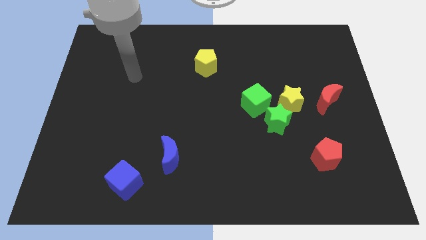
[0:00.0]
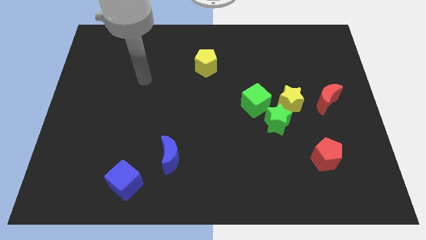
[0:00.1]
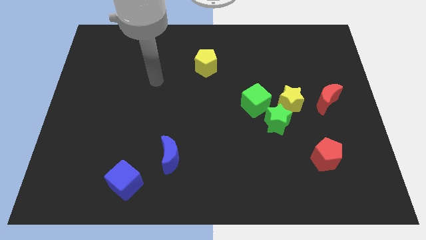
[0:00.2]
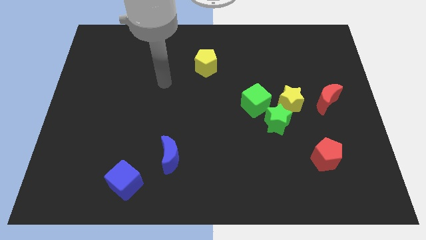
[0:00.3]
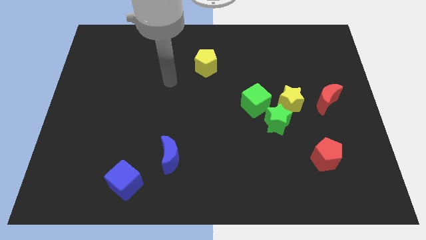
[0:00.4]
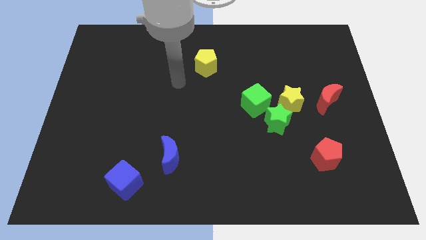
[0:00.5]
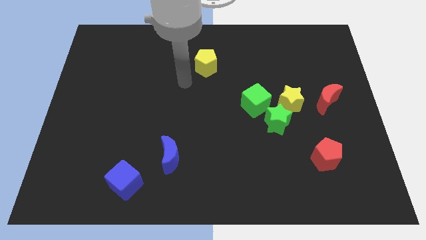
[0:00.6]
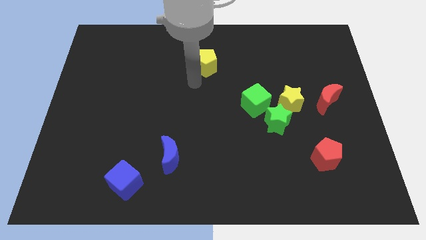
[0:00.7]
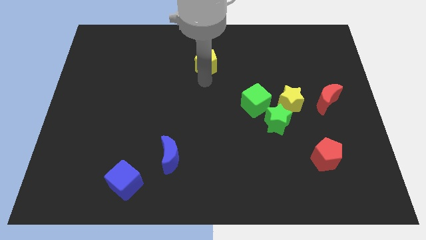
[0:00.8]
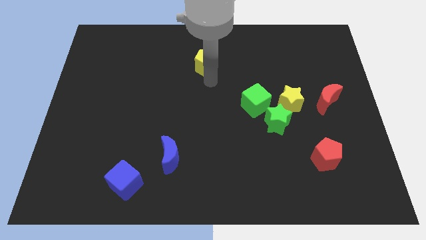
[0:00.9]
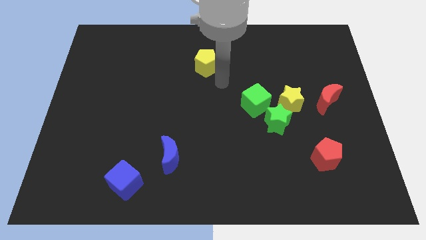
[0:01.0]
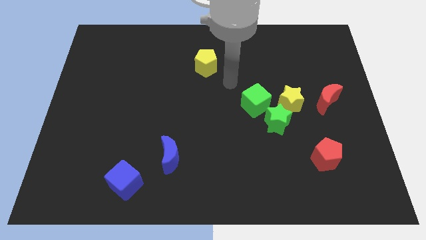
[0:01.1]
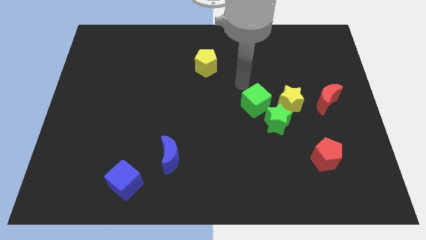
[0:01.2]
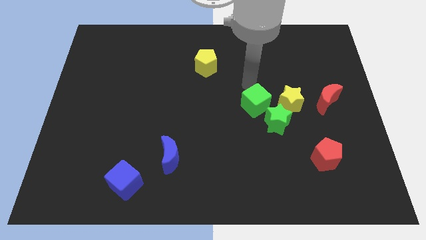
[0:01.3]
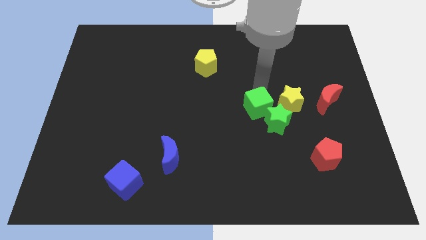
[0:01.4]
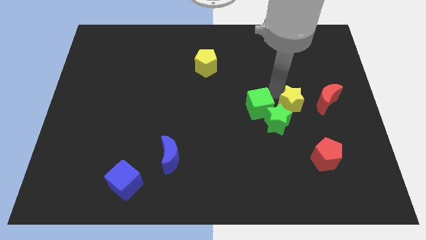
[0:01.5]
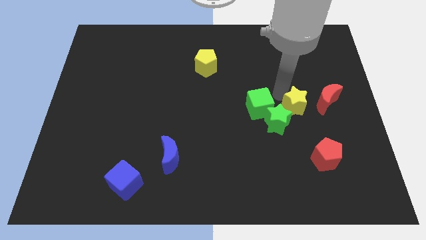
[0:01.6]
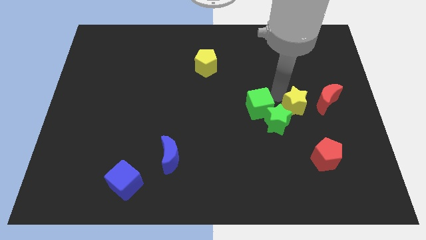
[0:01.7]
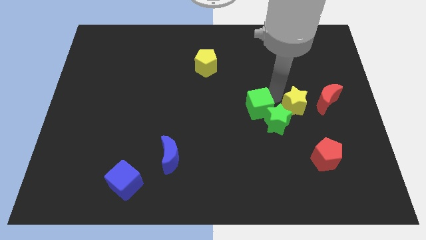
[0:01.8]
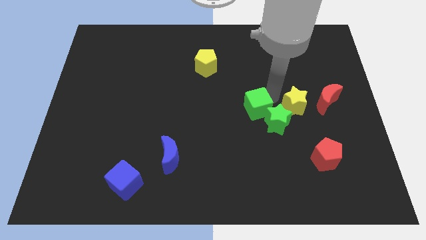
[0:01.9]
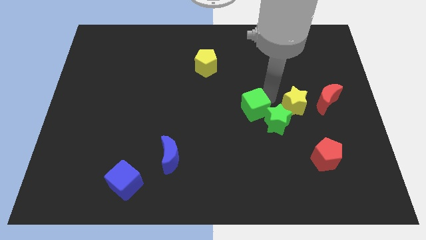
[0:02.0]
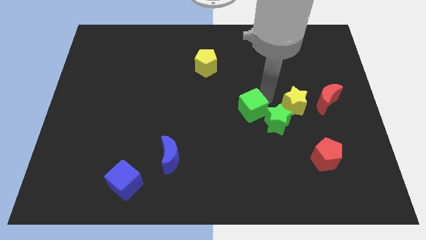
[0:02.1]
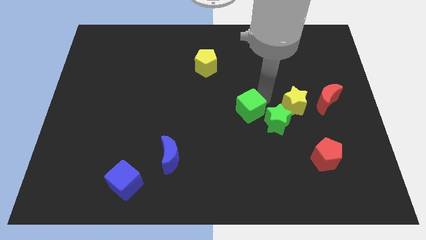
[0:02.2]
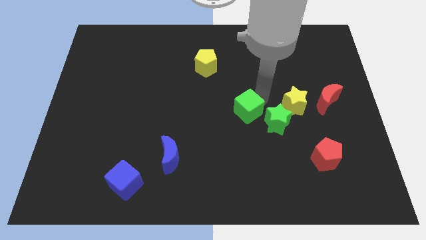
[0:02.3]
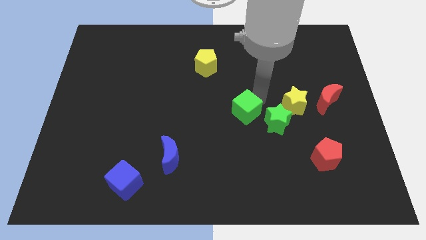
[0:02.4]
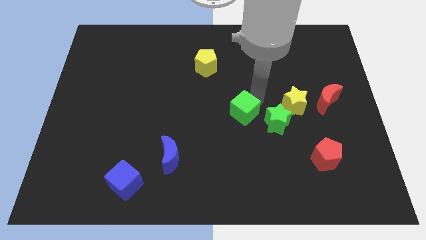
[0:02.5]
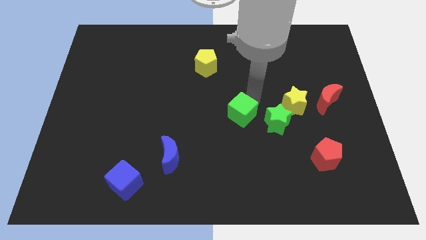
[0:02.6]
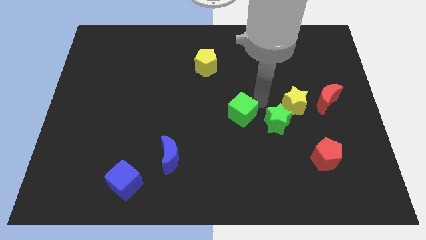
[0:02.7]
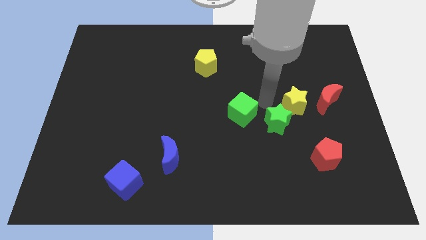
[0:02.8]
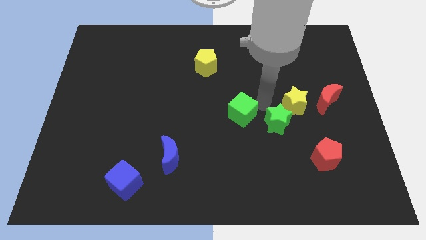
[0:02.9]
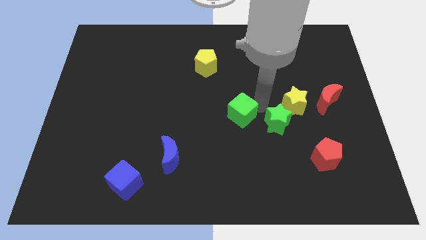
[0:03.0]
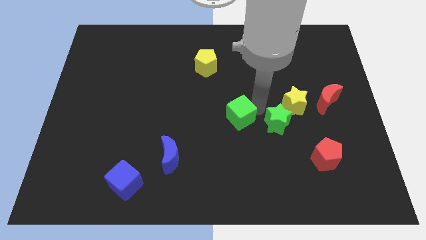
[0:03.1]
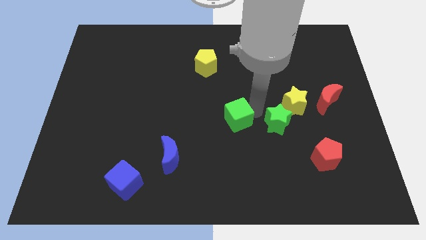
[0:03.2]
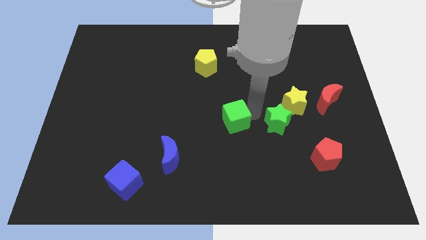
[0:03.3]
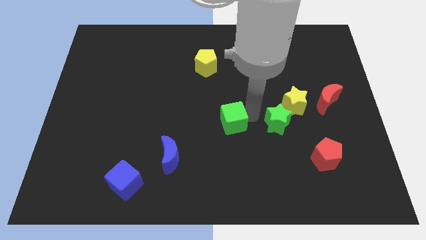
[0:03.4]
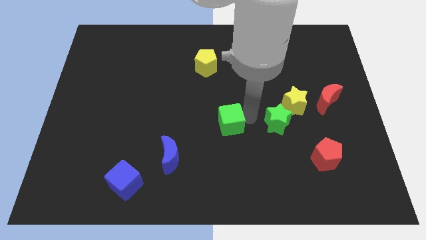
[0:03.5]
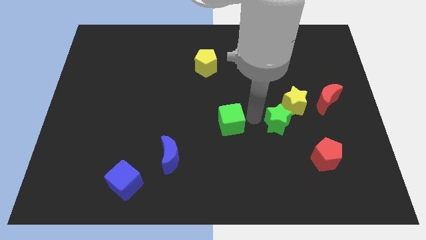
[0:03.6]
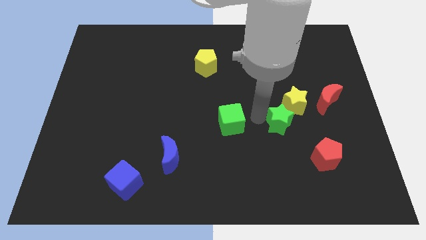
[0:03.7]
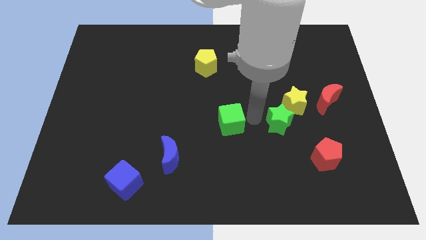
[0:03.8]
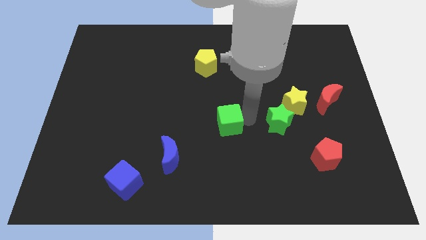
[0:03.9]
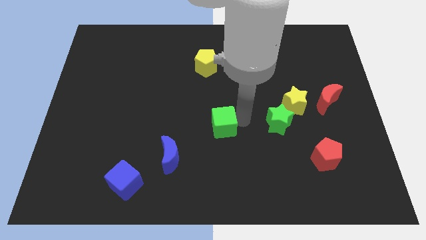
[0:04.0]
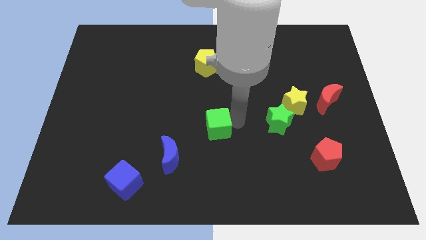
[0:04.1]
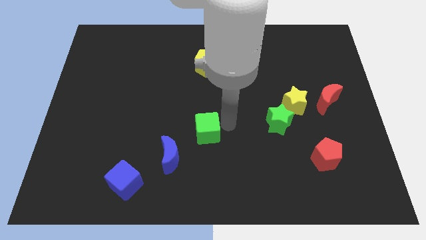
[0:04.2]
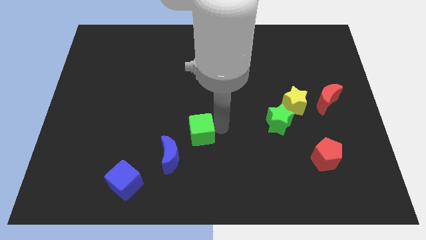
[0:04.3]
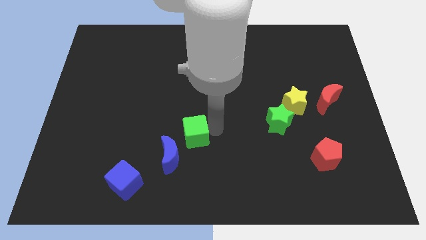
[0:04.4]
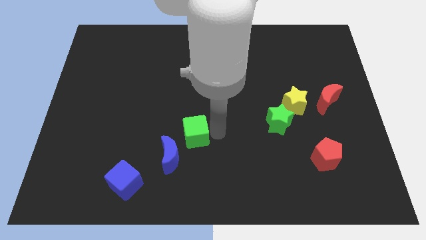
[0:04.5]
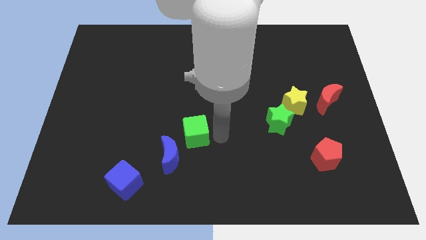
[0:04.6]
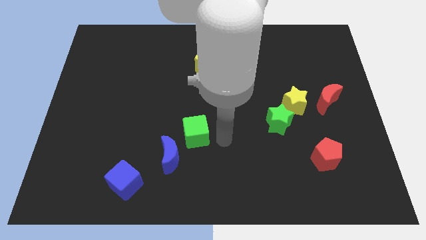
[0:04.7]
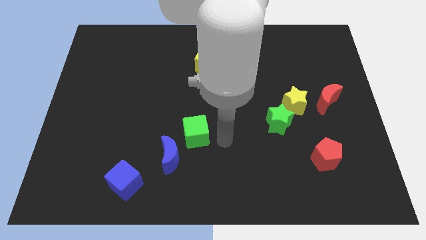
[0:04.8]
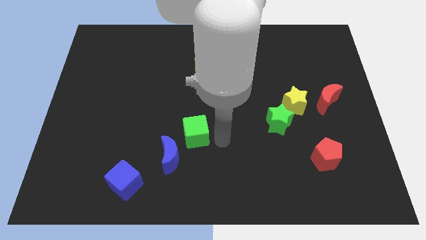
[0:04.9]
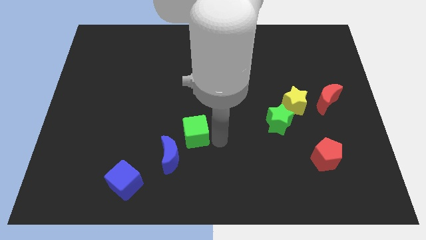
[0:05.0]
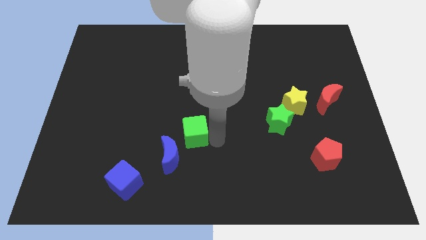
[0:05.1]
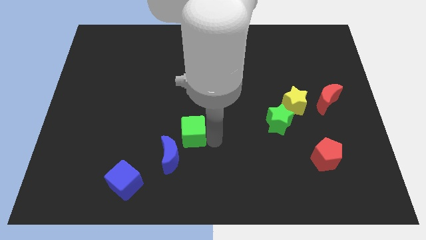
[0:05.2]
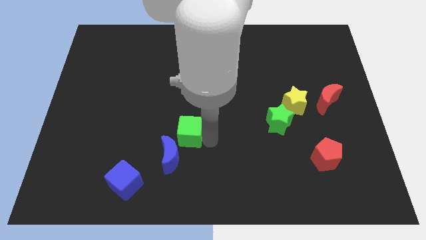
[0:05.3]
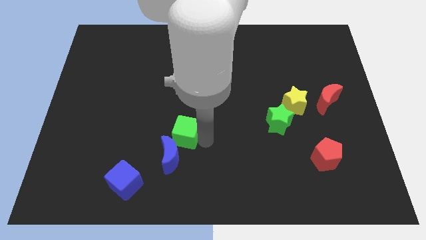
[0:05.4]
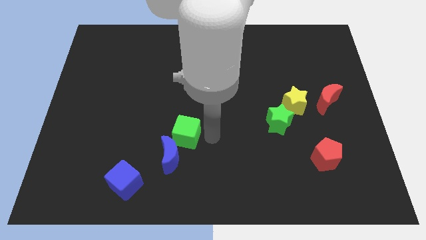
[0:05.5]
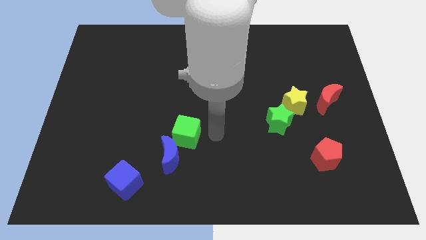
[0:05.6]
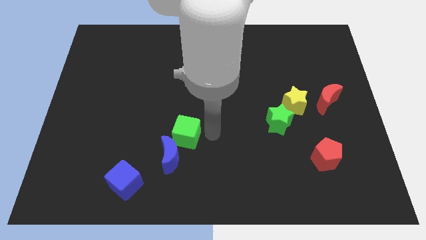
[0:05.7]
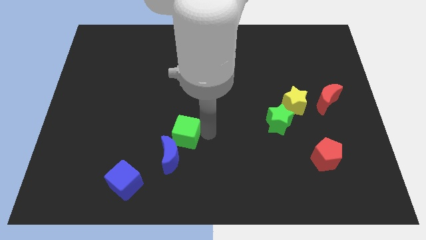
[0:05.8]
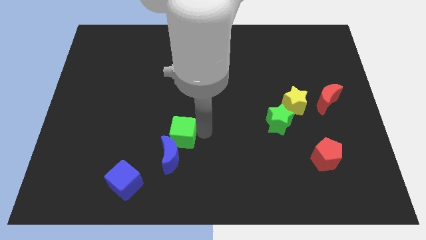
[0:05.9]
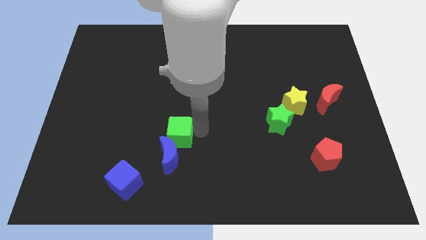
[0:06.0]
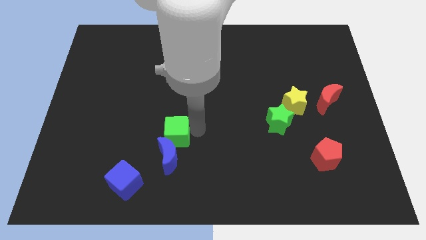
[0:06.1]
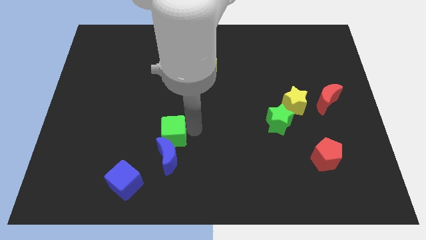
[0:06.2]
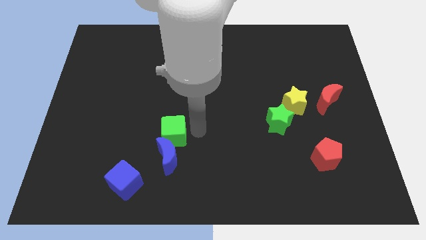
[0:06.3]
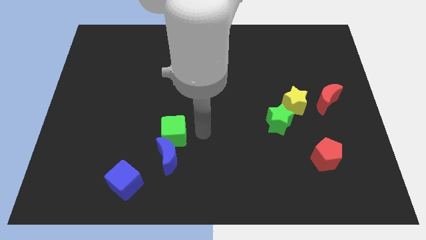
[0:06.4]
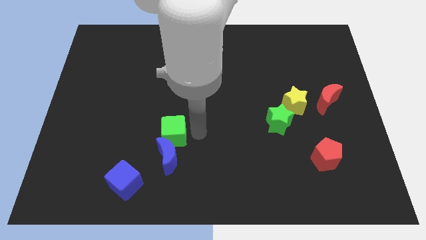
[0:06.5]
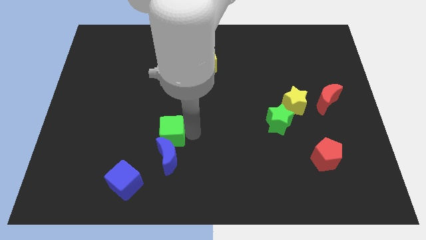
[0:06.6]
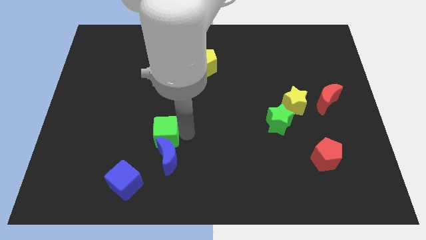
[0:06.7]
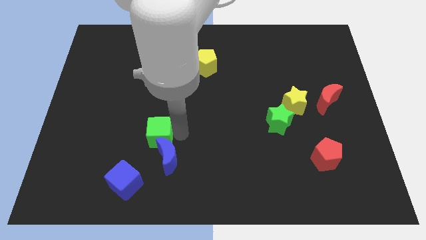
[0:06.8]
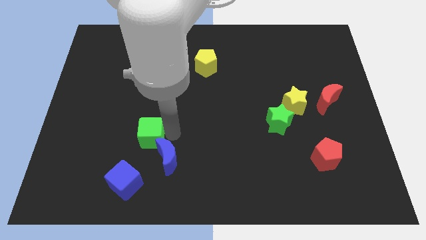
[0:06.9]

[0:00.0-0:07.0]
slide the green cube to the top side of the blue cube
